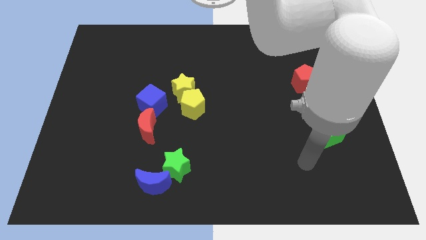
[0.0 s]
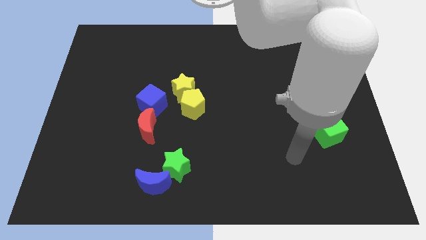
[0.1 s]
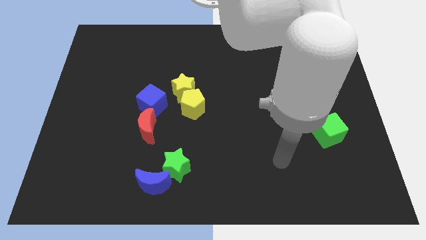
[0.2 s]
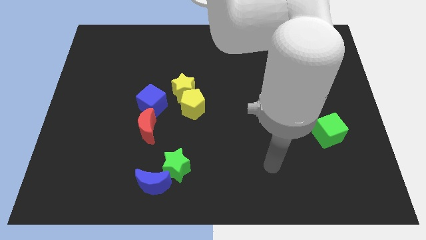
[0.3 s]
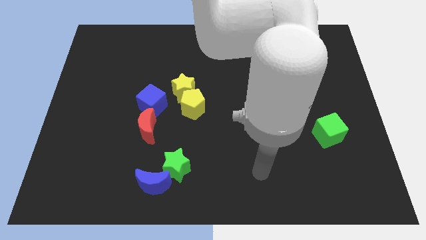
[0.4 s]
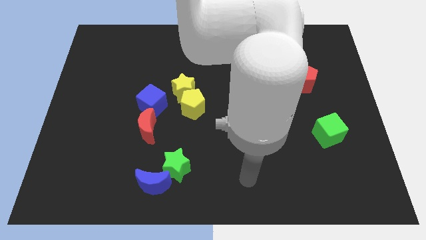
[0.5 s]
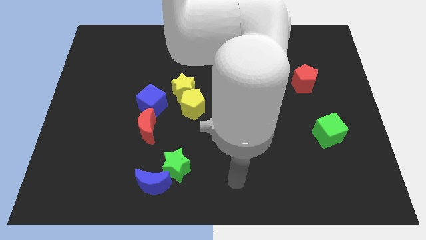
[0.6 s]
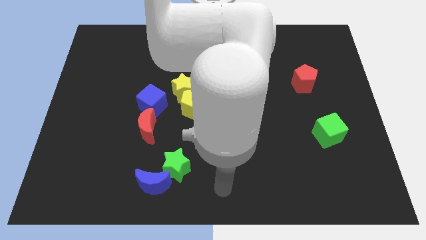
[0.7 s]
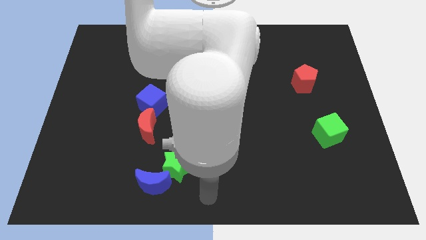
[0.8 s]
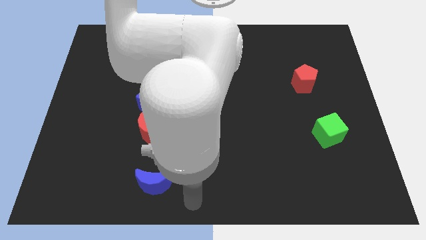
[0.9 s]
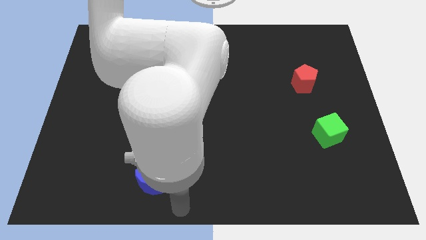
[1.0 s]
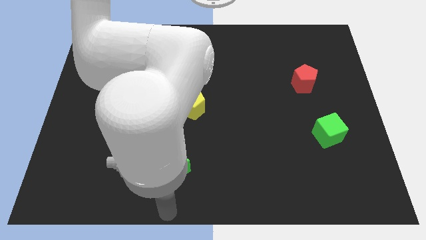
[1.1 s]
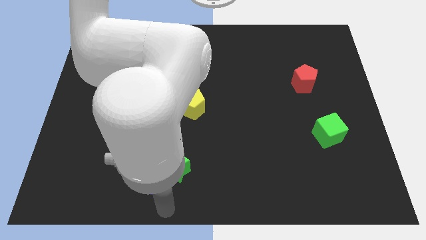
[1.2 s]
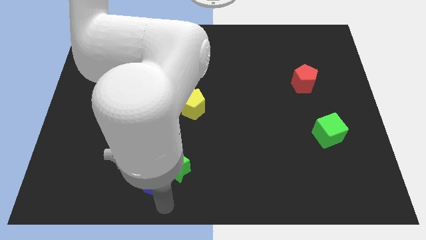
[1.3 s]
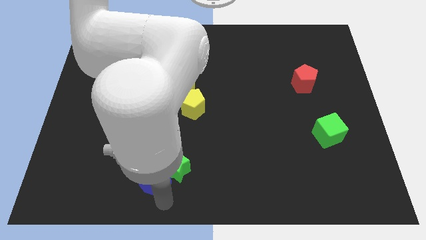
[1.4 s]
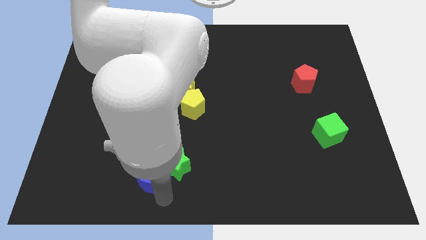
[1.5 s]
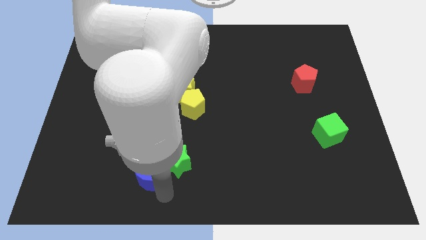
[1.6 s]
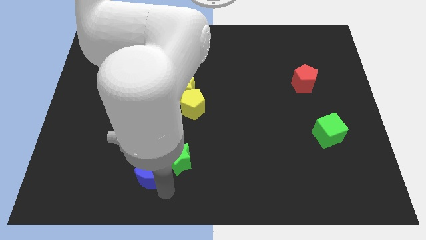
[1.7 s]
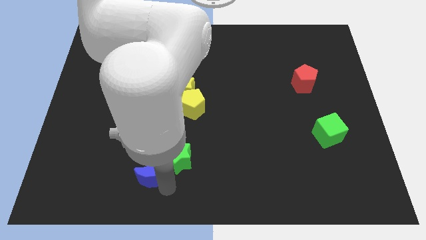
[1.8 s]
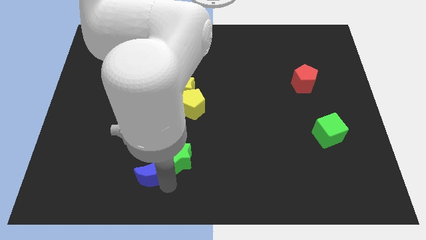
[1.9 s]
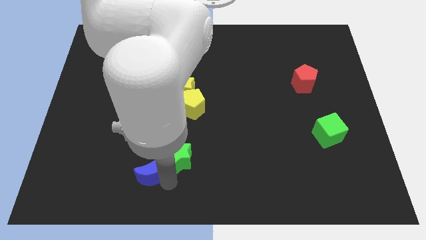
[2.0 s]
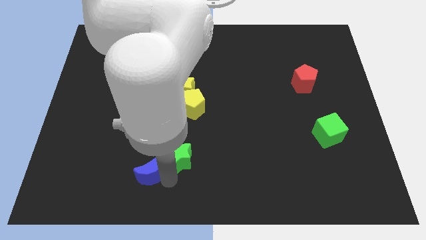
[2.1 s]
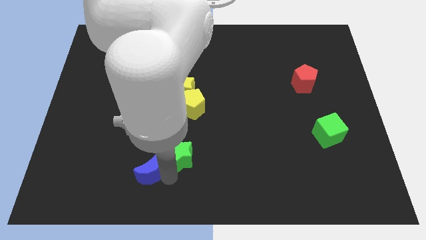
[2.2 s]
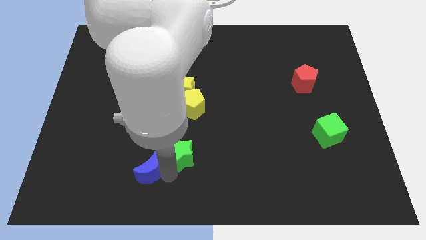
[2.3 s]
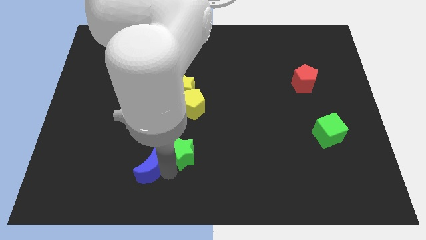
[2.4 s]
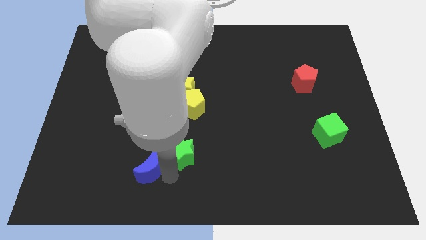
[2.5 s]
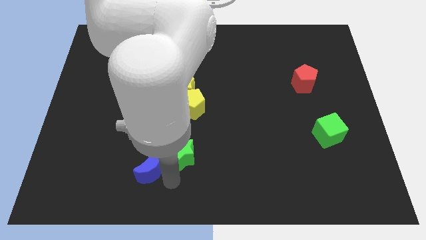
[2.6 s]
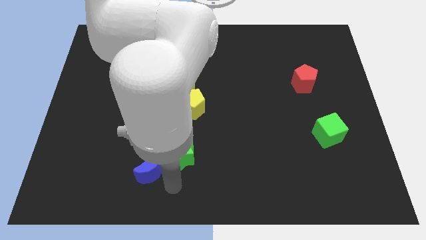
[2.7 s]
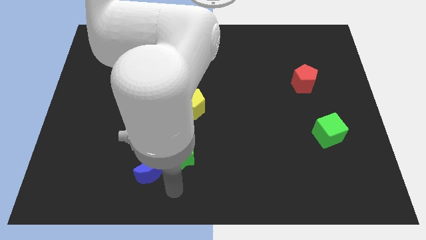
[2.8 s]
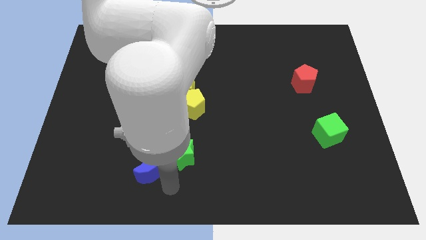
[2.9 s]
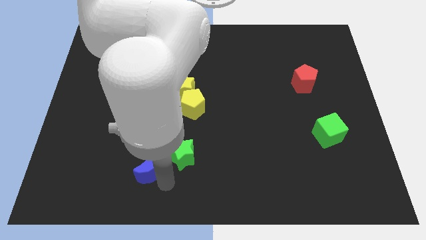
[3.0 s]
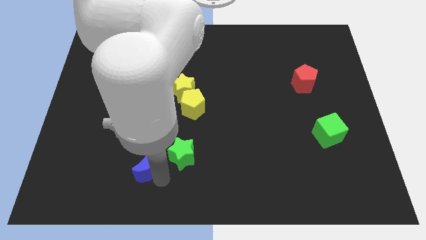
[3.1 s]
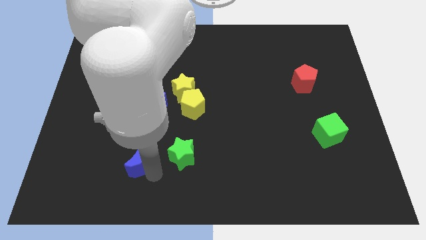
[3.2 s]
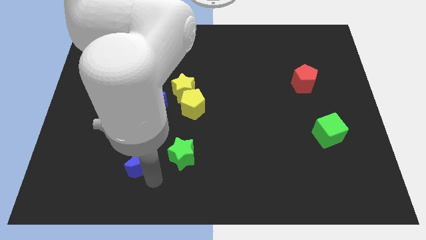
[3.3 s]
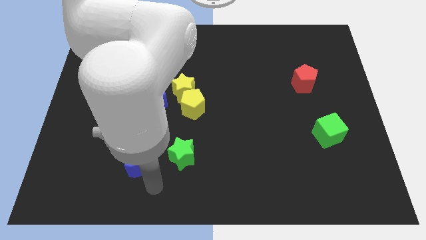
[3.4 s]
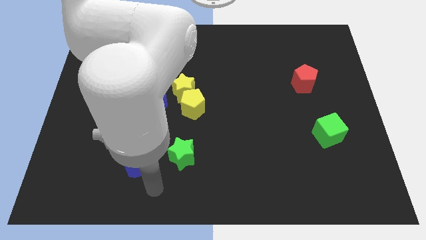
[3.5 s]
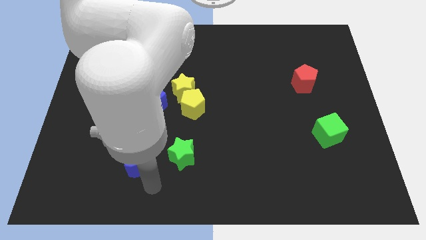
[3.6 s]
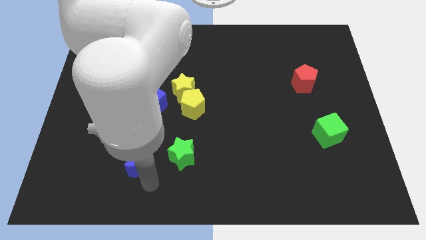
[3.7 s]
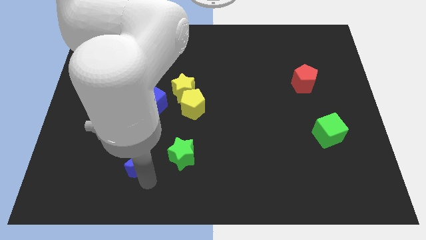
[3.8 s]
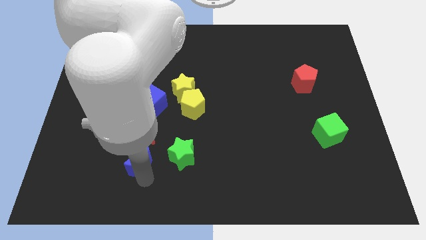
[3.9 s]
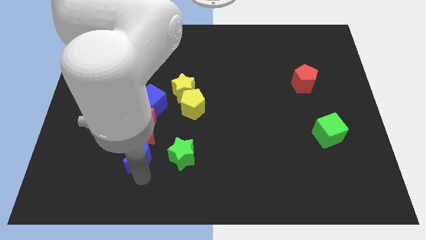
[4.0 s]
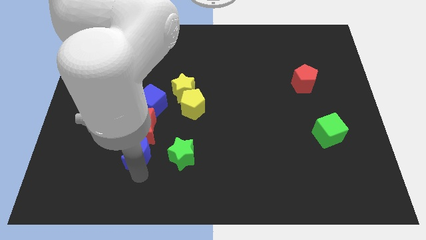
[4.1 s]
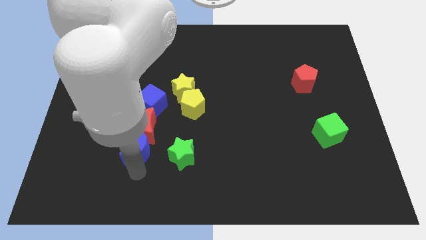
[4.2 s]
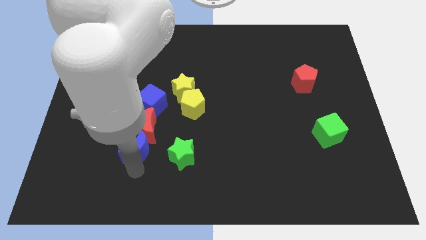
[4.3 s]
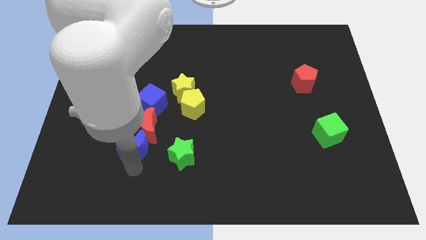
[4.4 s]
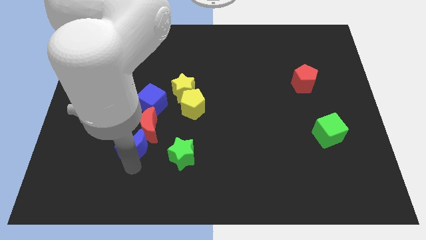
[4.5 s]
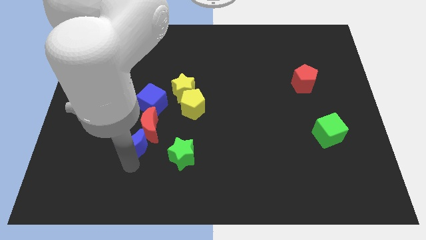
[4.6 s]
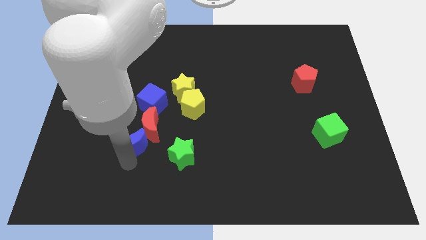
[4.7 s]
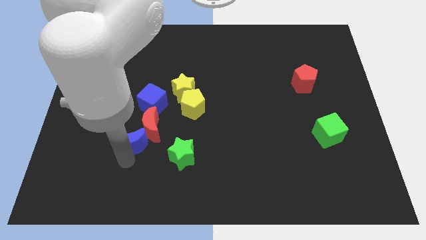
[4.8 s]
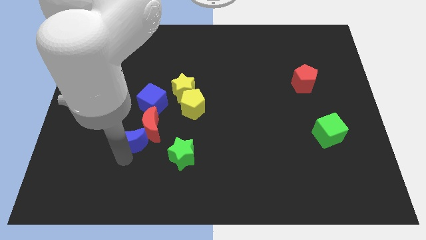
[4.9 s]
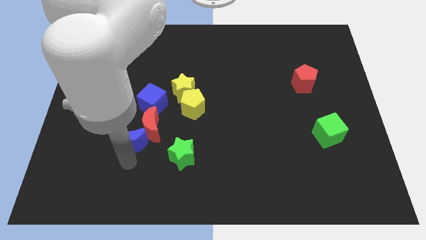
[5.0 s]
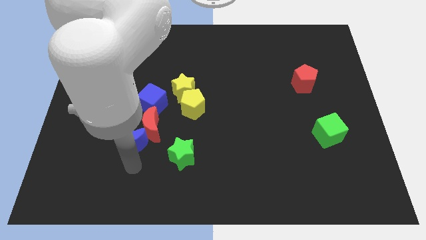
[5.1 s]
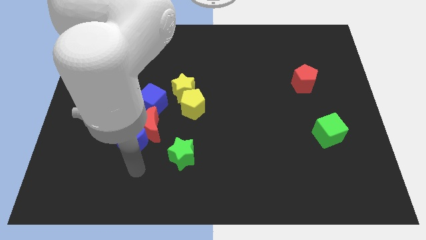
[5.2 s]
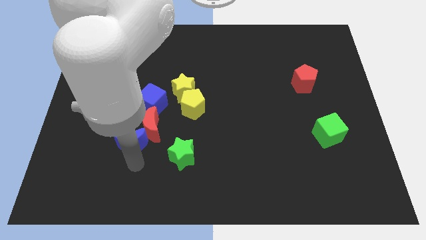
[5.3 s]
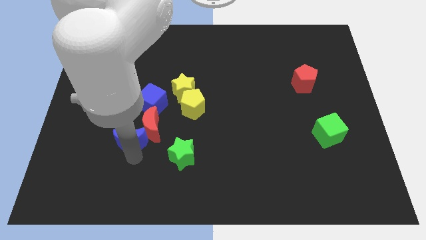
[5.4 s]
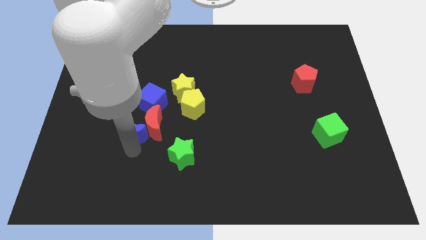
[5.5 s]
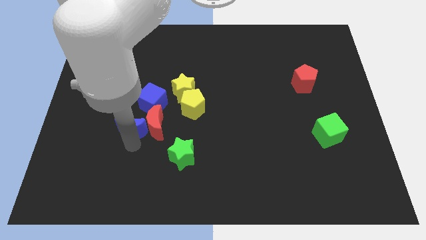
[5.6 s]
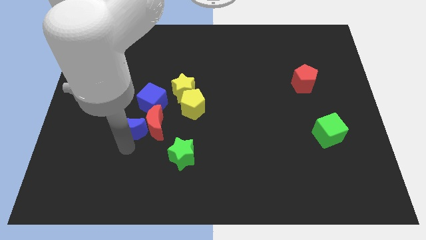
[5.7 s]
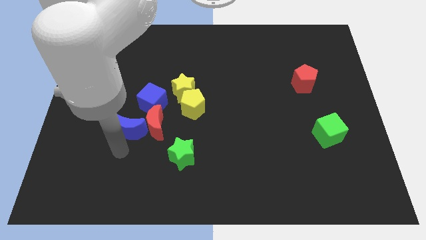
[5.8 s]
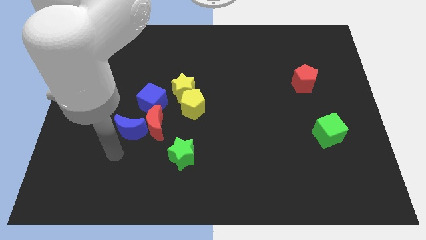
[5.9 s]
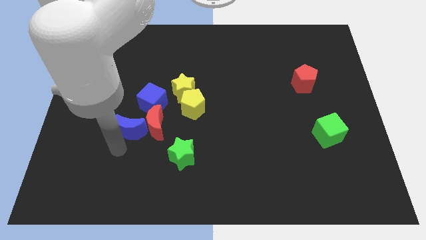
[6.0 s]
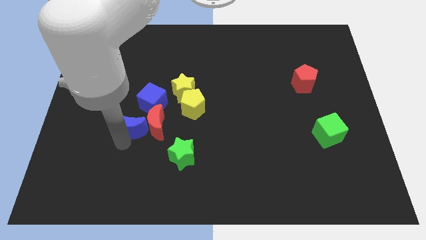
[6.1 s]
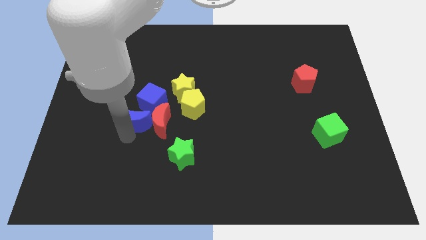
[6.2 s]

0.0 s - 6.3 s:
push the blue moon to the left of the yellow pentagon

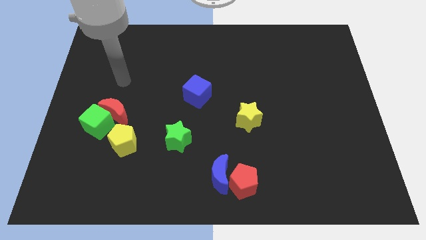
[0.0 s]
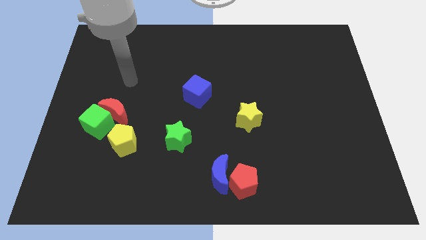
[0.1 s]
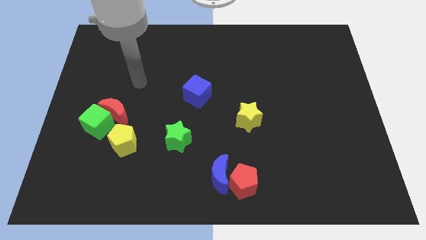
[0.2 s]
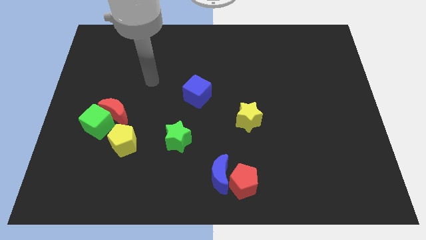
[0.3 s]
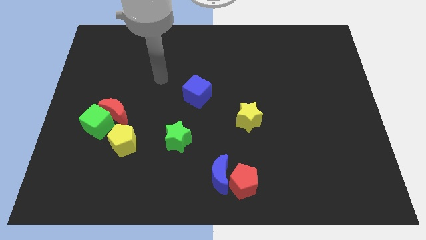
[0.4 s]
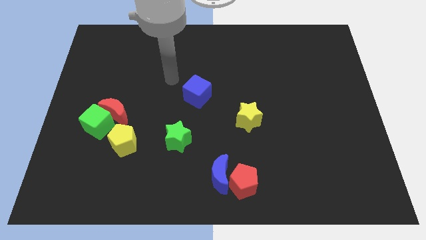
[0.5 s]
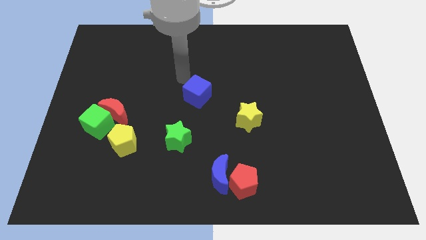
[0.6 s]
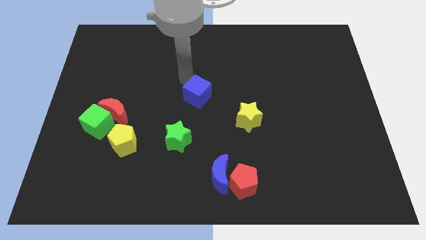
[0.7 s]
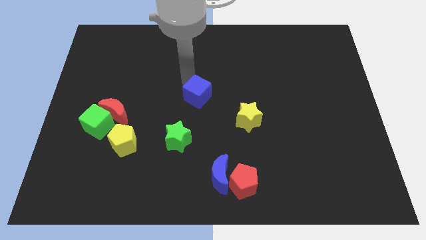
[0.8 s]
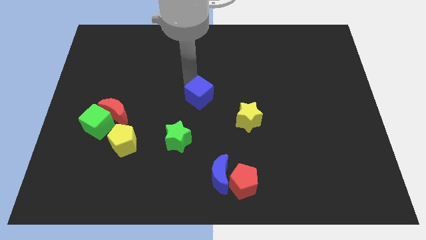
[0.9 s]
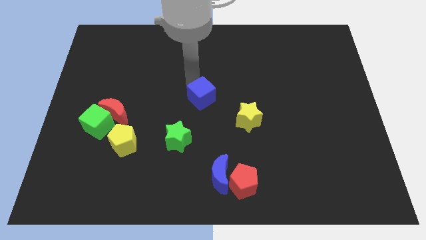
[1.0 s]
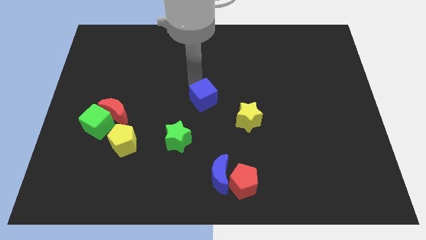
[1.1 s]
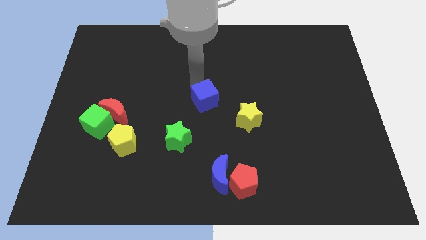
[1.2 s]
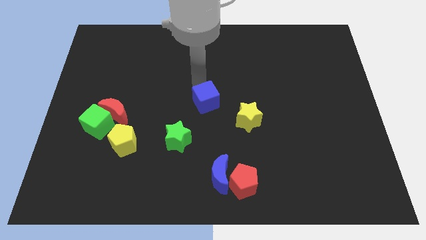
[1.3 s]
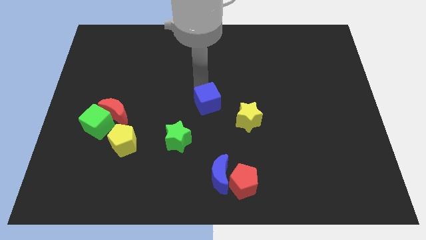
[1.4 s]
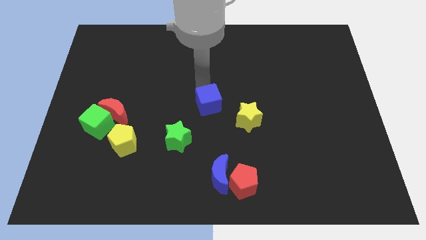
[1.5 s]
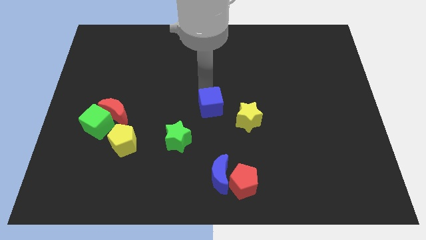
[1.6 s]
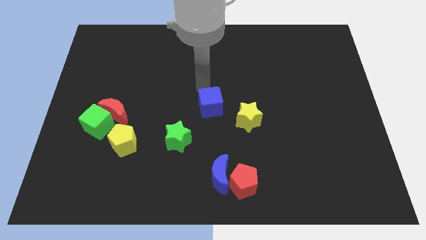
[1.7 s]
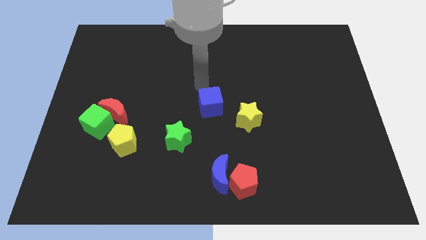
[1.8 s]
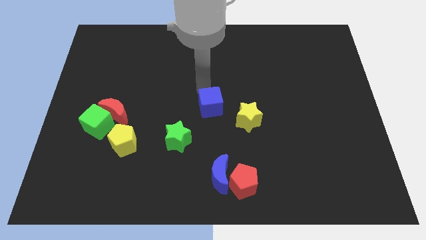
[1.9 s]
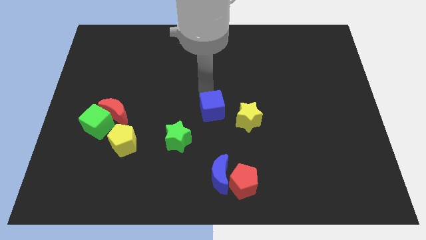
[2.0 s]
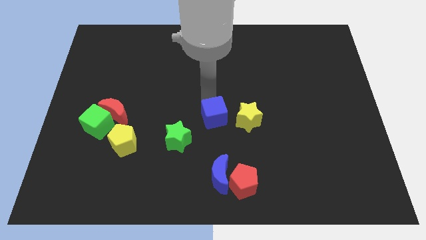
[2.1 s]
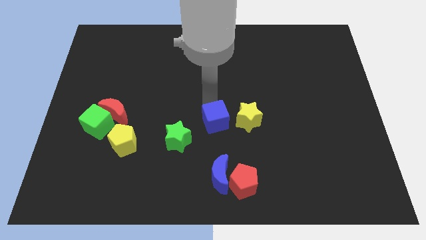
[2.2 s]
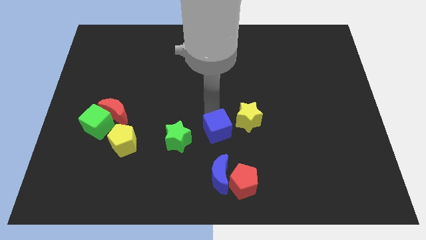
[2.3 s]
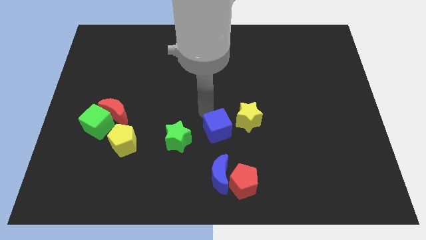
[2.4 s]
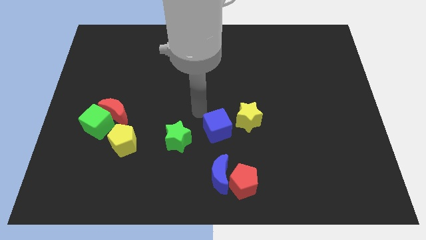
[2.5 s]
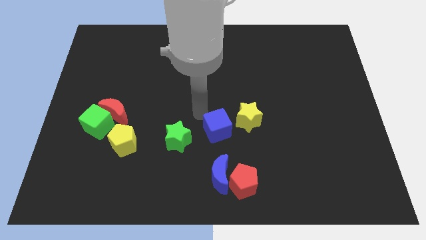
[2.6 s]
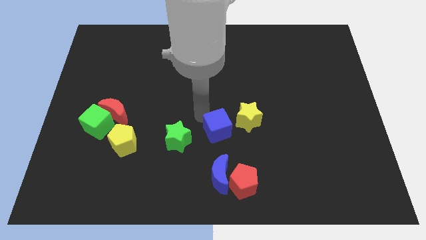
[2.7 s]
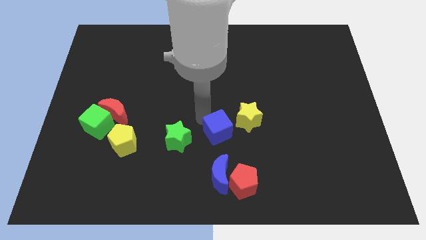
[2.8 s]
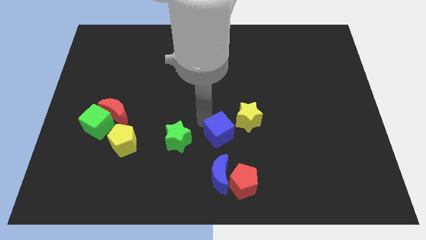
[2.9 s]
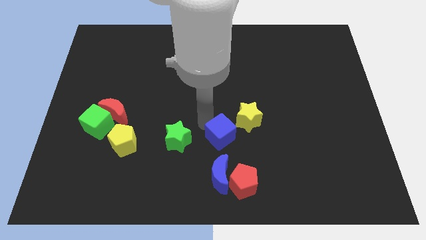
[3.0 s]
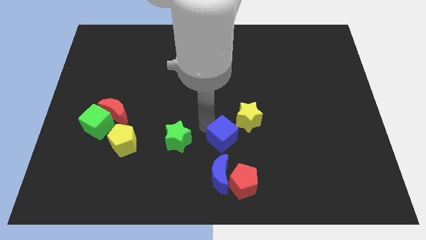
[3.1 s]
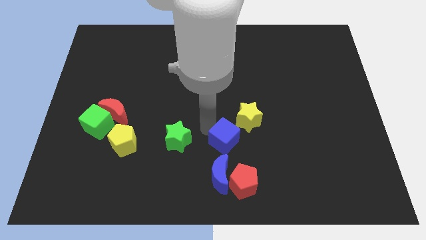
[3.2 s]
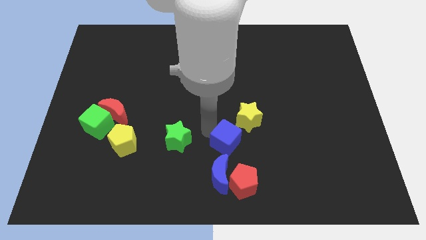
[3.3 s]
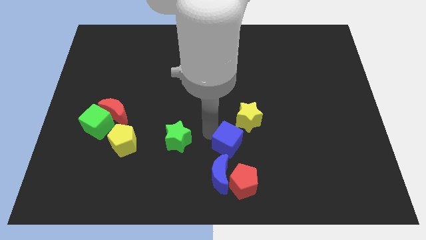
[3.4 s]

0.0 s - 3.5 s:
put the blue cube below the yellow star
